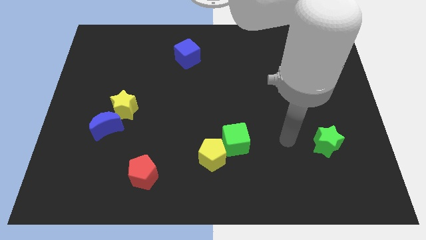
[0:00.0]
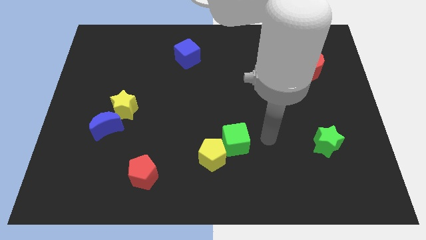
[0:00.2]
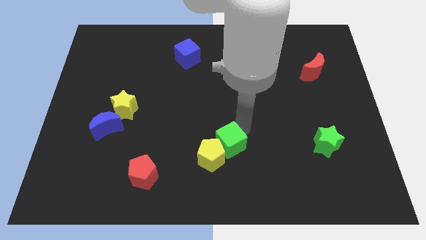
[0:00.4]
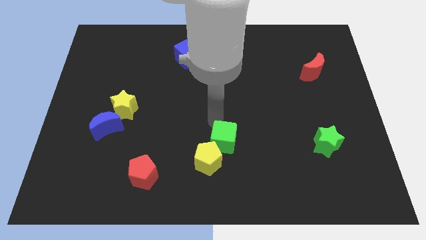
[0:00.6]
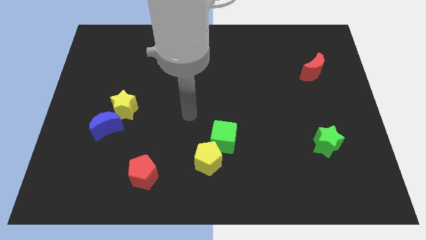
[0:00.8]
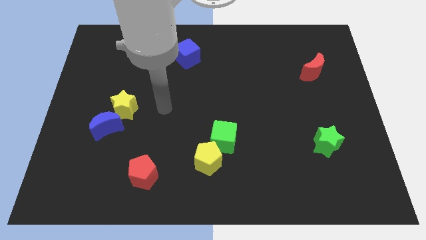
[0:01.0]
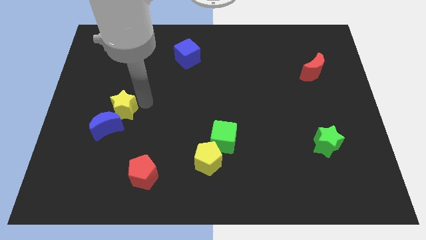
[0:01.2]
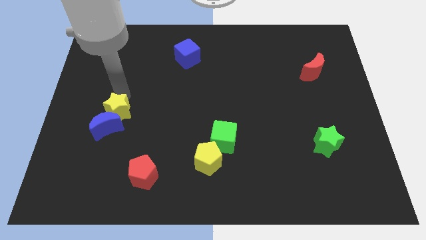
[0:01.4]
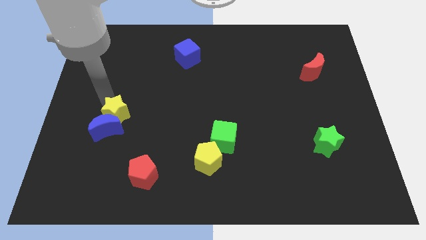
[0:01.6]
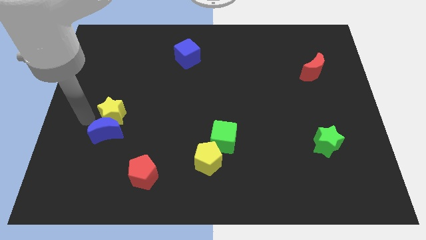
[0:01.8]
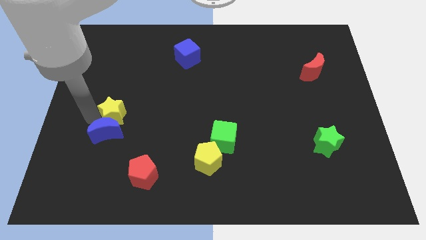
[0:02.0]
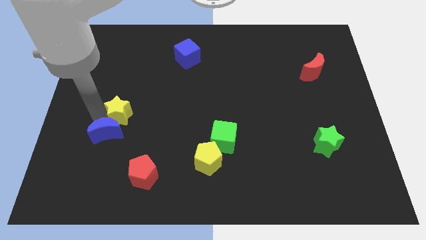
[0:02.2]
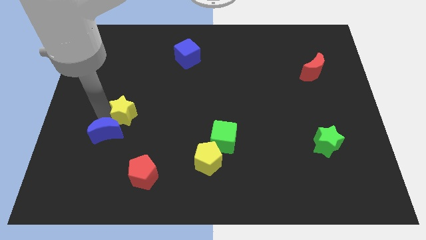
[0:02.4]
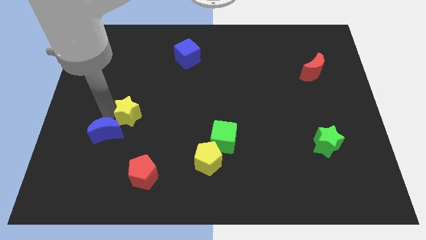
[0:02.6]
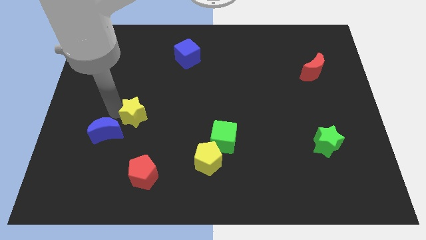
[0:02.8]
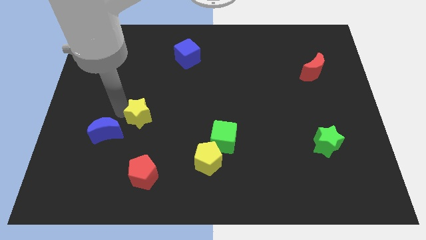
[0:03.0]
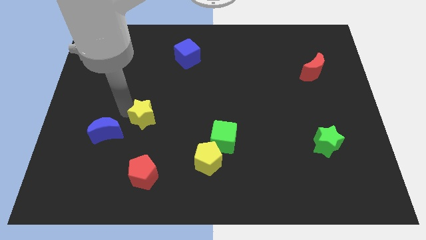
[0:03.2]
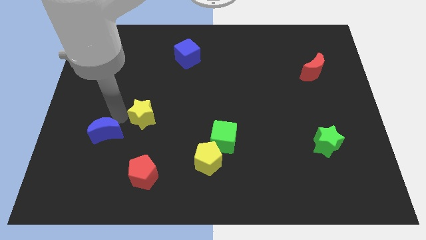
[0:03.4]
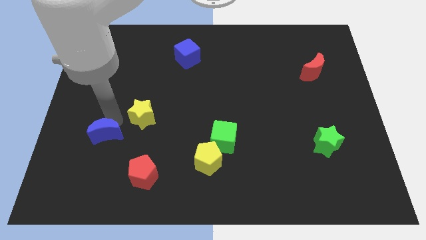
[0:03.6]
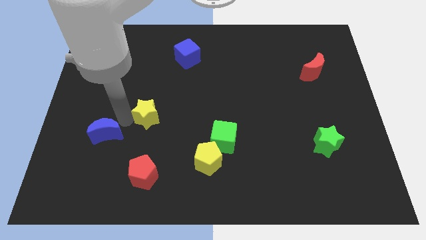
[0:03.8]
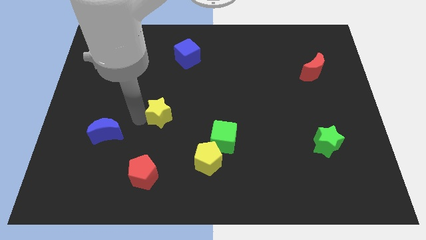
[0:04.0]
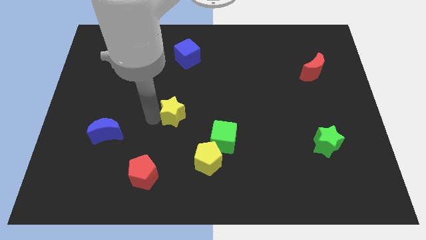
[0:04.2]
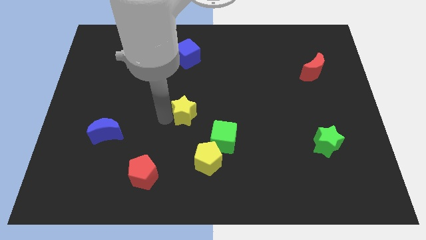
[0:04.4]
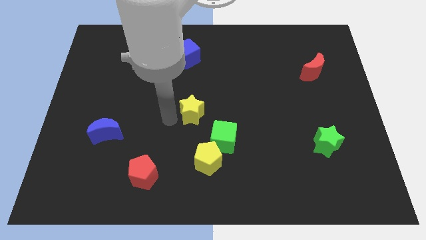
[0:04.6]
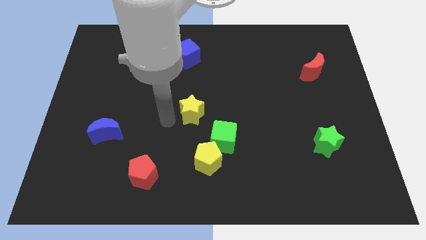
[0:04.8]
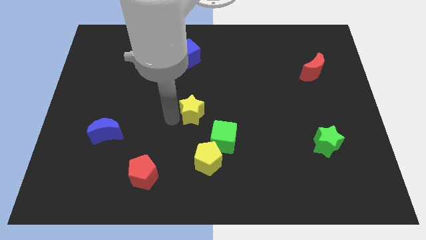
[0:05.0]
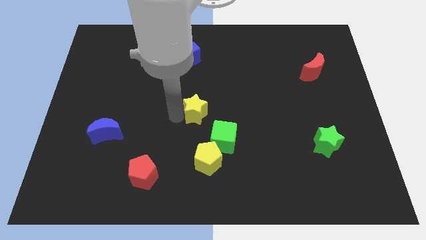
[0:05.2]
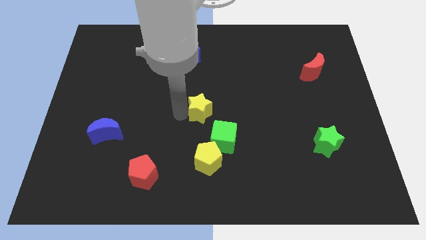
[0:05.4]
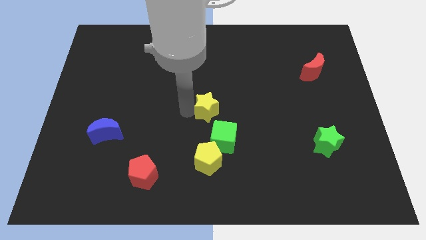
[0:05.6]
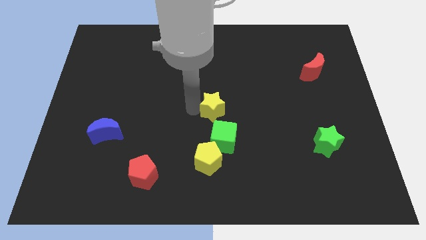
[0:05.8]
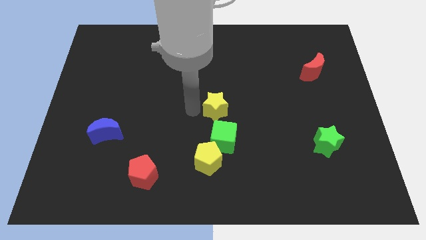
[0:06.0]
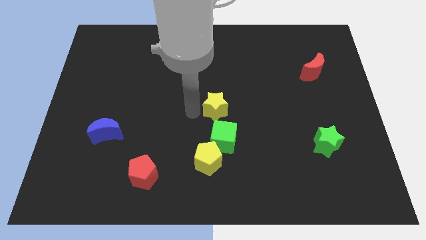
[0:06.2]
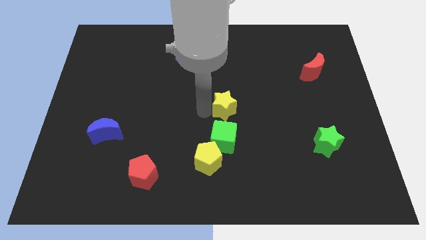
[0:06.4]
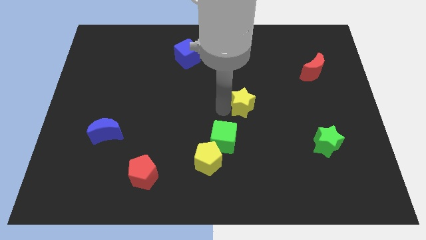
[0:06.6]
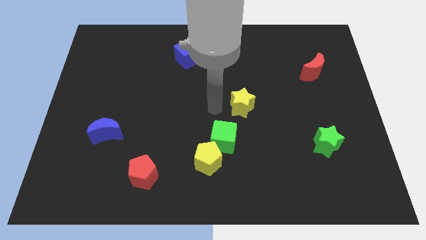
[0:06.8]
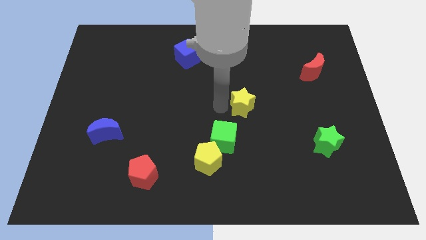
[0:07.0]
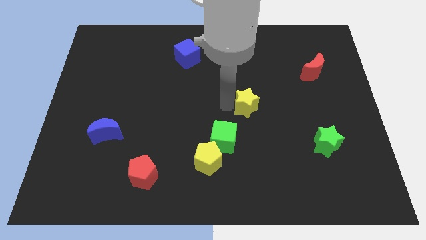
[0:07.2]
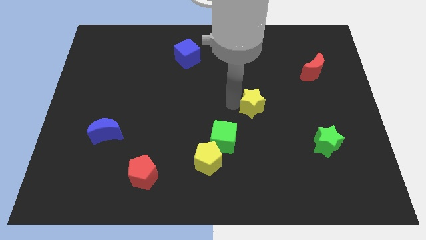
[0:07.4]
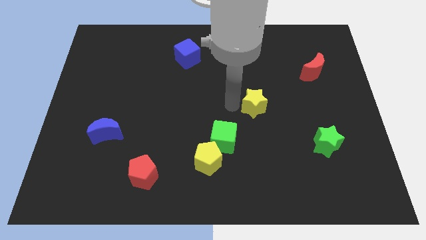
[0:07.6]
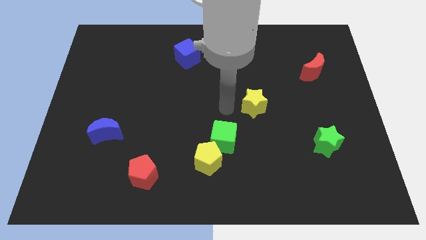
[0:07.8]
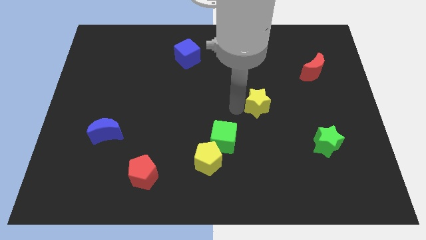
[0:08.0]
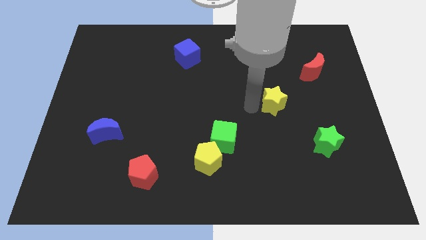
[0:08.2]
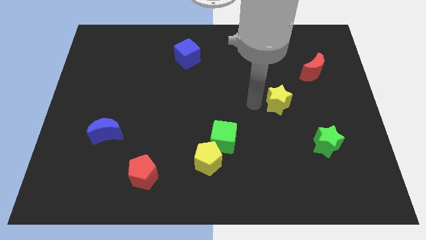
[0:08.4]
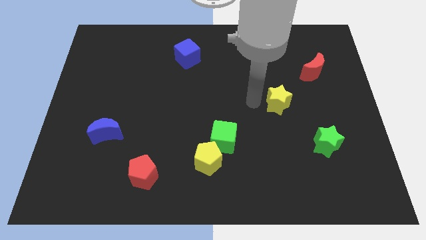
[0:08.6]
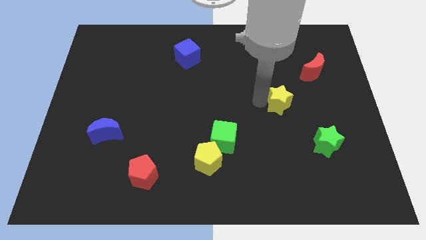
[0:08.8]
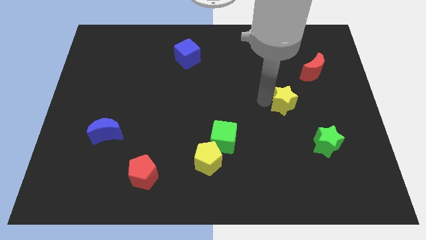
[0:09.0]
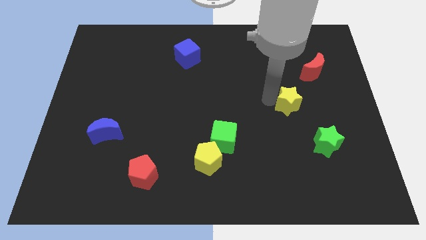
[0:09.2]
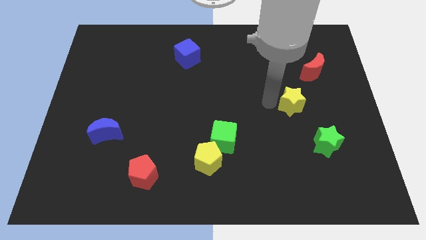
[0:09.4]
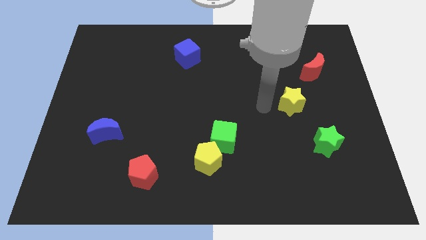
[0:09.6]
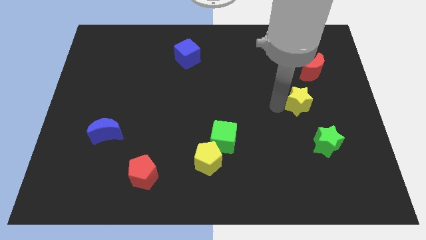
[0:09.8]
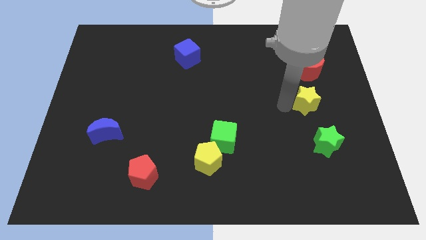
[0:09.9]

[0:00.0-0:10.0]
put the yellow star to the bottom of the red moon

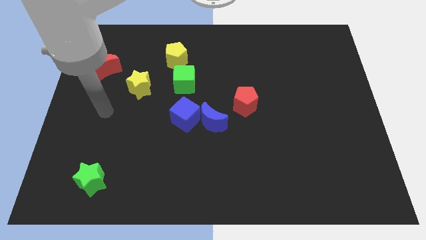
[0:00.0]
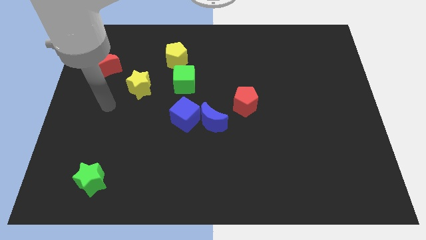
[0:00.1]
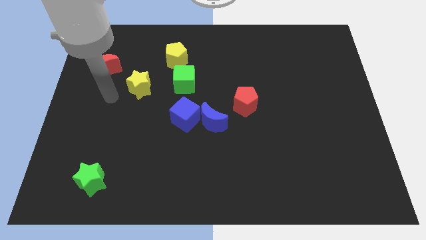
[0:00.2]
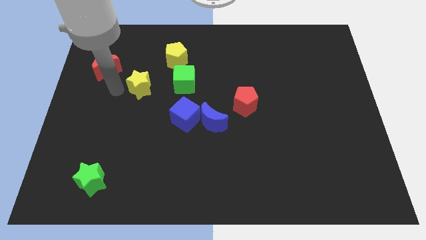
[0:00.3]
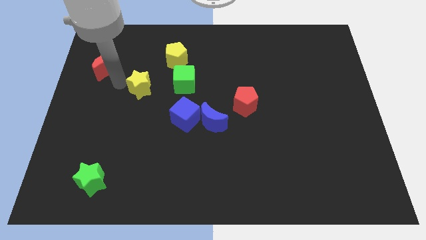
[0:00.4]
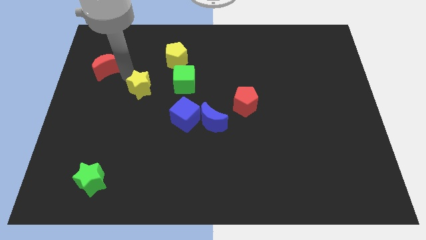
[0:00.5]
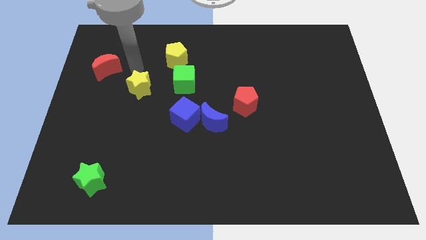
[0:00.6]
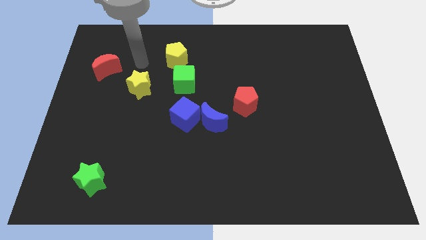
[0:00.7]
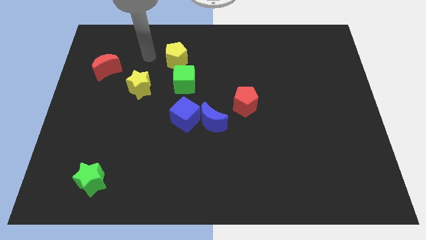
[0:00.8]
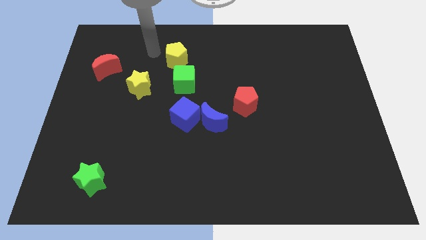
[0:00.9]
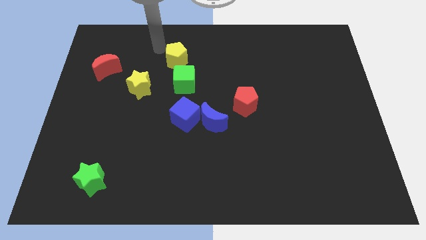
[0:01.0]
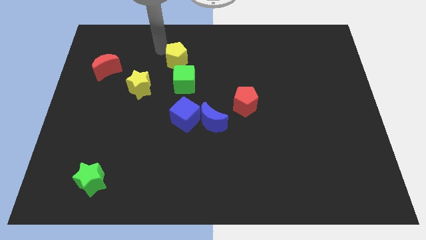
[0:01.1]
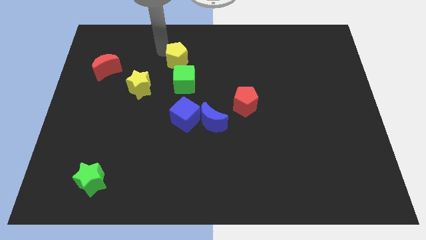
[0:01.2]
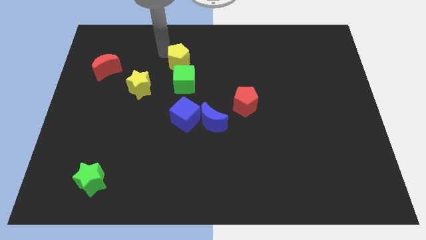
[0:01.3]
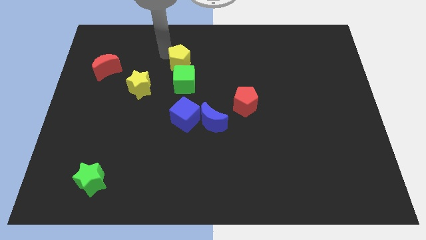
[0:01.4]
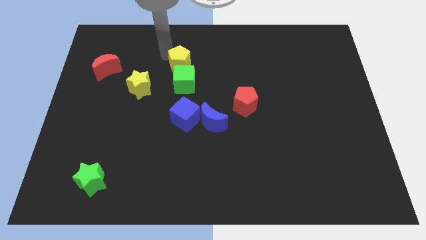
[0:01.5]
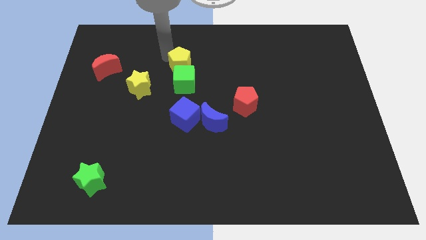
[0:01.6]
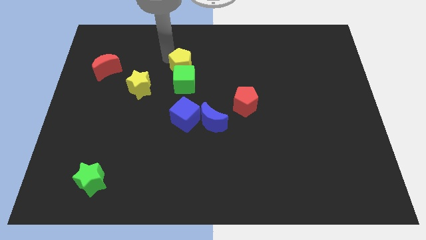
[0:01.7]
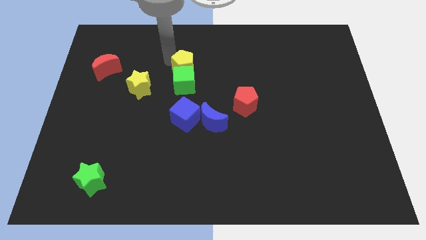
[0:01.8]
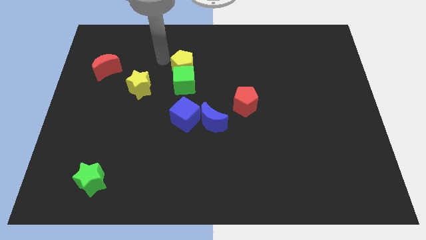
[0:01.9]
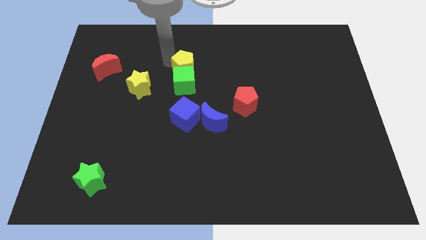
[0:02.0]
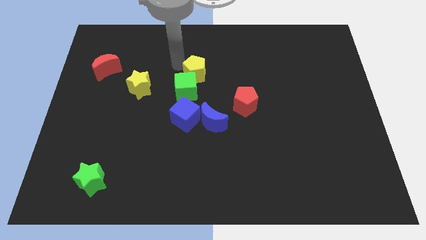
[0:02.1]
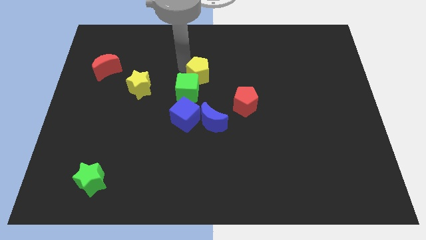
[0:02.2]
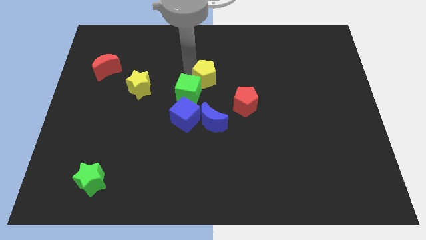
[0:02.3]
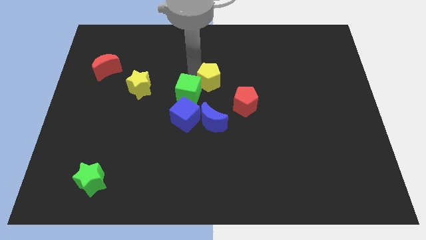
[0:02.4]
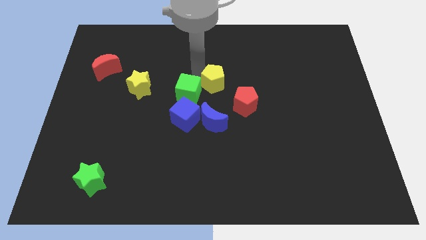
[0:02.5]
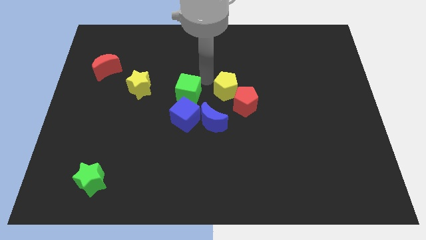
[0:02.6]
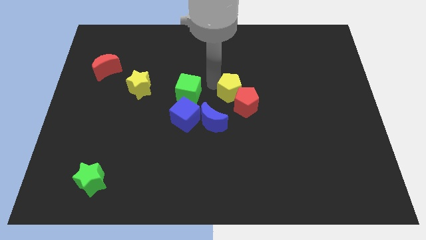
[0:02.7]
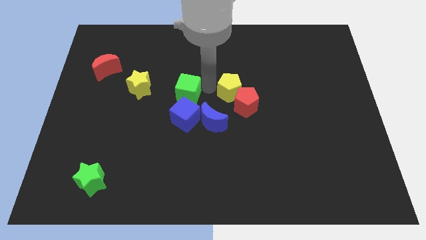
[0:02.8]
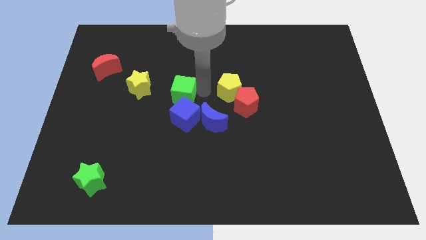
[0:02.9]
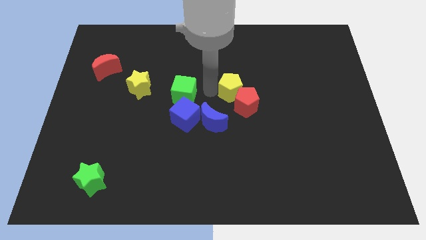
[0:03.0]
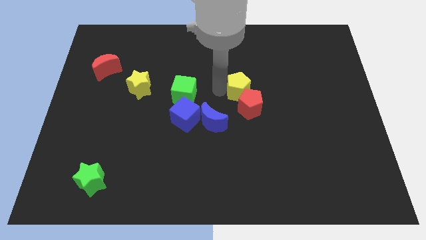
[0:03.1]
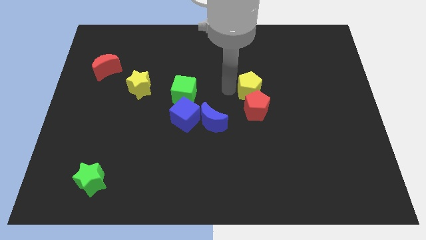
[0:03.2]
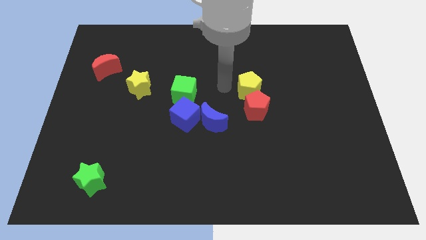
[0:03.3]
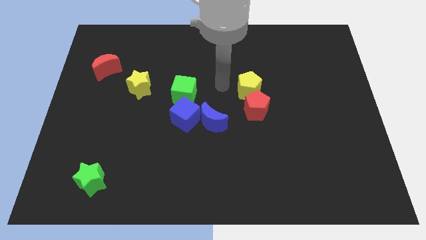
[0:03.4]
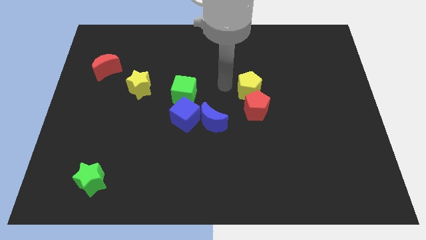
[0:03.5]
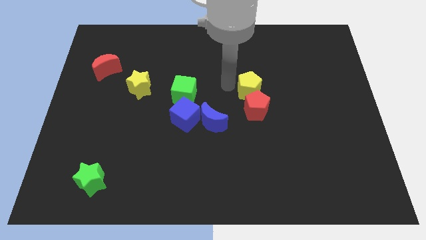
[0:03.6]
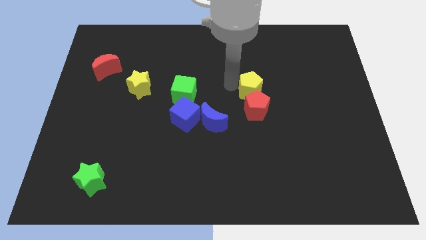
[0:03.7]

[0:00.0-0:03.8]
push the yellow pentagon to the top right of the red pentagon
